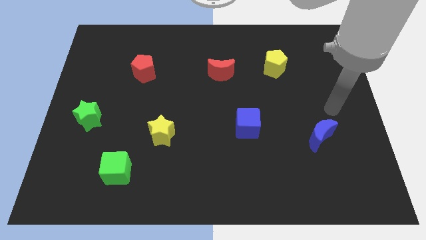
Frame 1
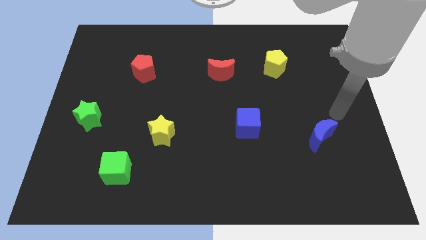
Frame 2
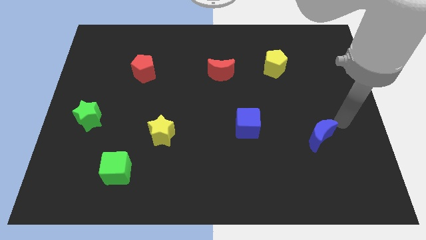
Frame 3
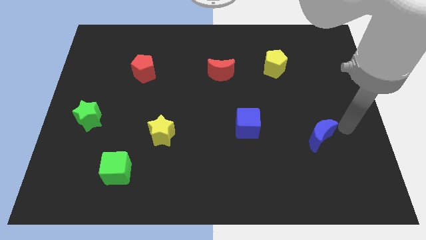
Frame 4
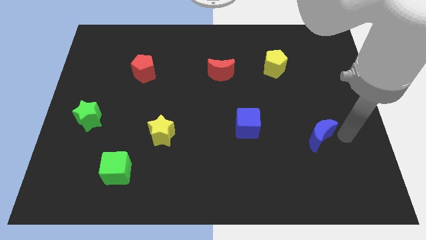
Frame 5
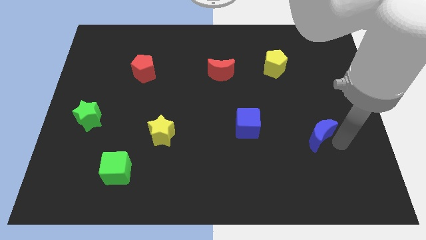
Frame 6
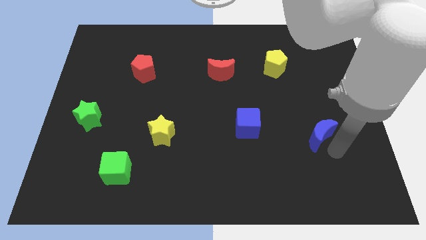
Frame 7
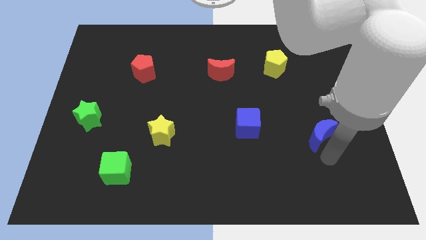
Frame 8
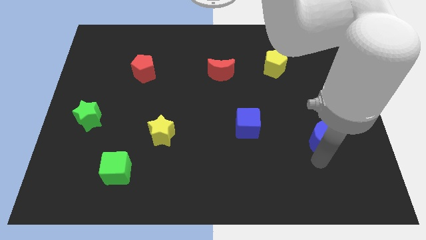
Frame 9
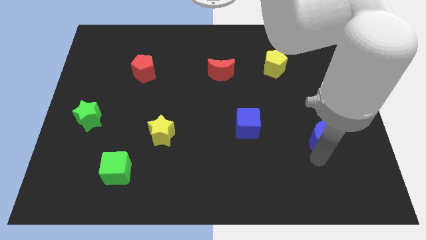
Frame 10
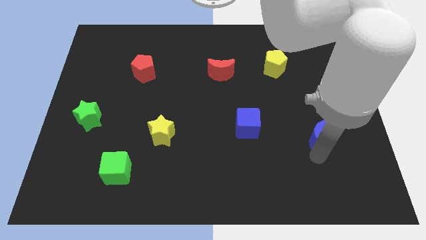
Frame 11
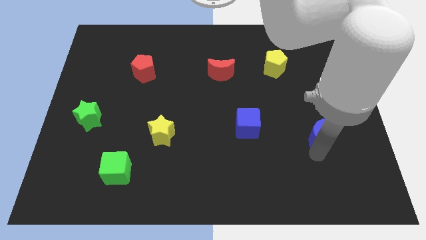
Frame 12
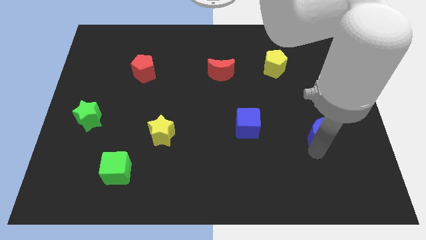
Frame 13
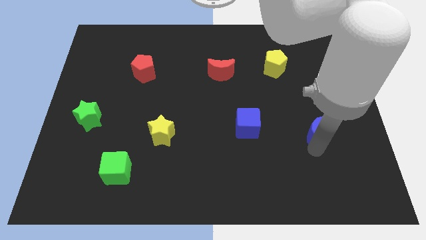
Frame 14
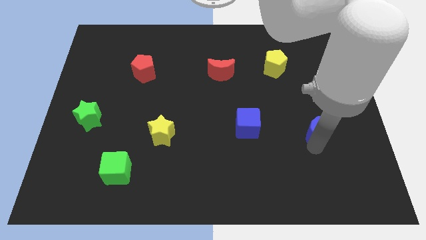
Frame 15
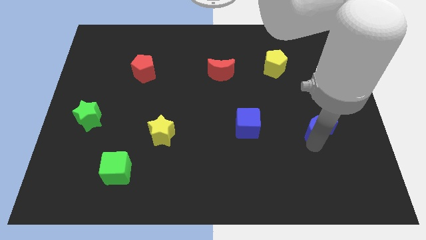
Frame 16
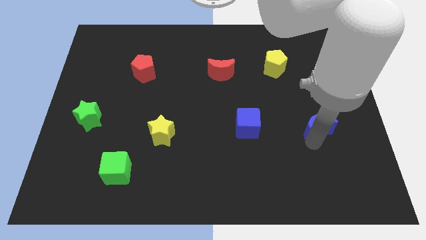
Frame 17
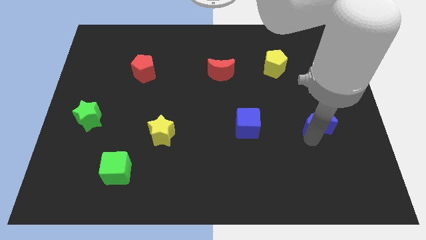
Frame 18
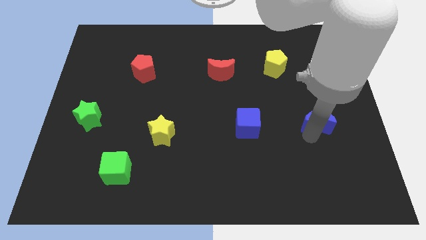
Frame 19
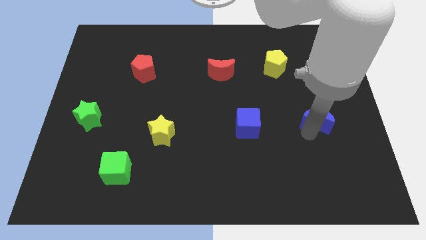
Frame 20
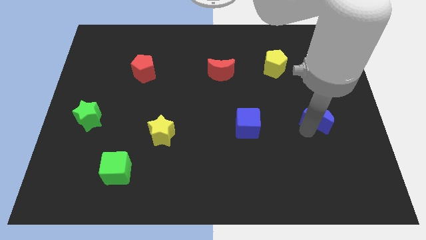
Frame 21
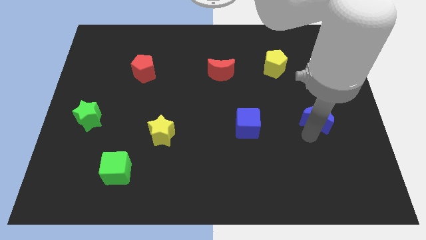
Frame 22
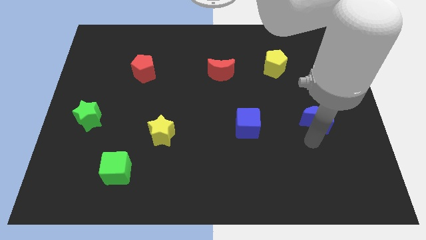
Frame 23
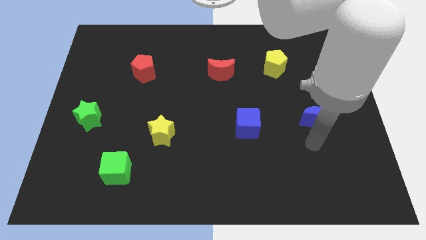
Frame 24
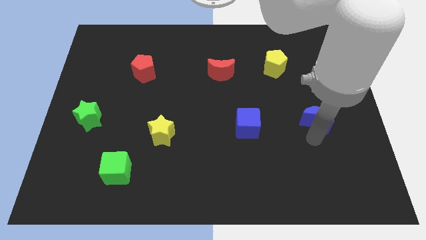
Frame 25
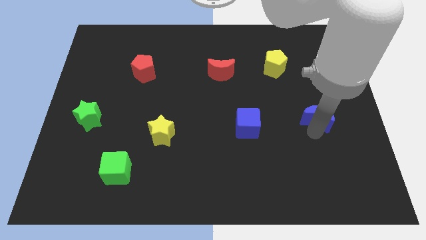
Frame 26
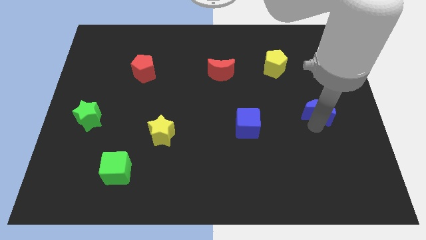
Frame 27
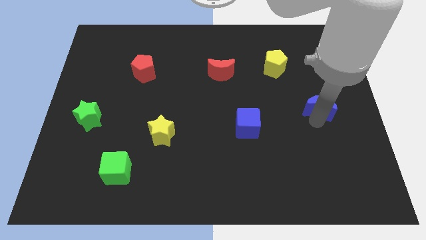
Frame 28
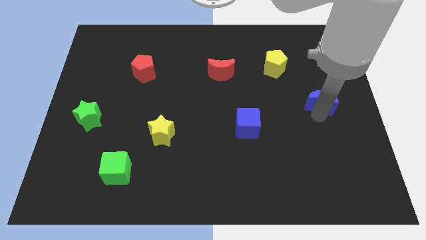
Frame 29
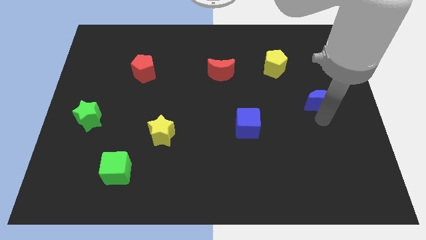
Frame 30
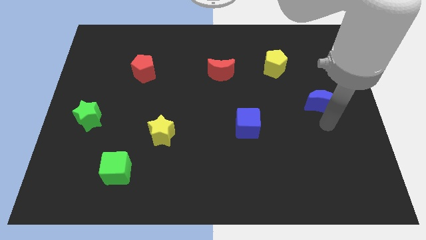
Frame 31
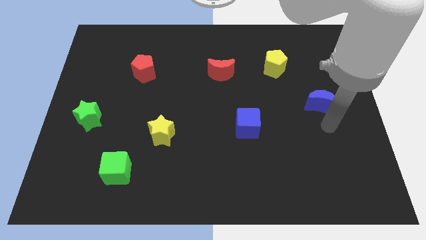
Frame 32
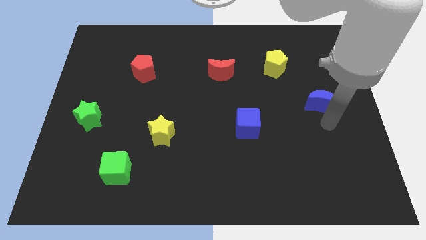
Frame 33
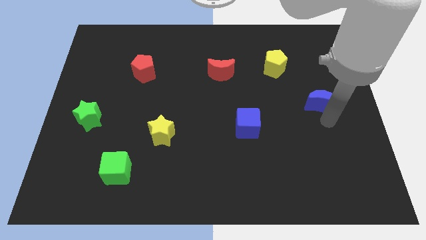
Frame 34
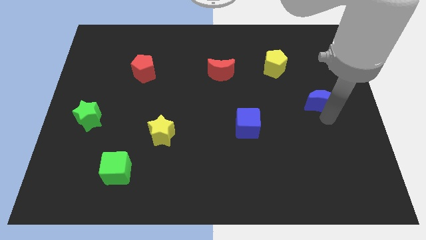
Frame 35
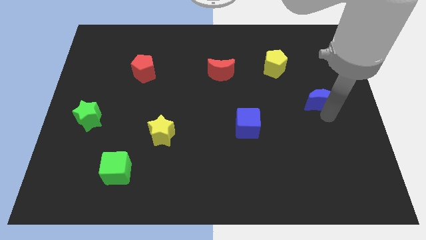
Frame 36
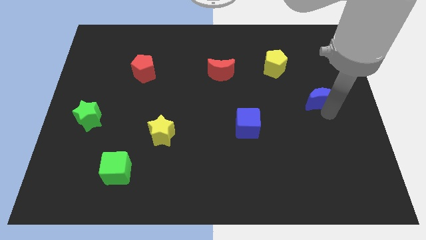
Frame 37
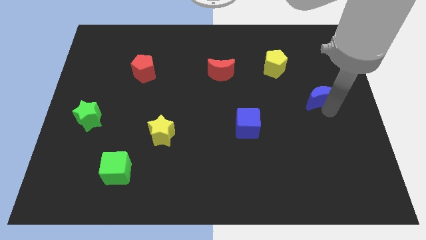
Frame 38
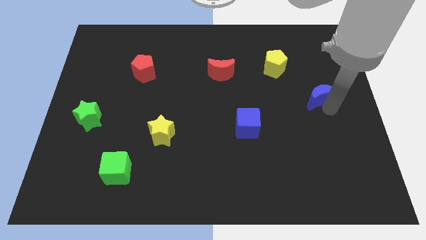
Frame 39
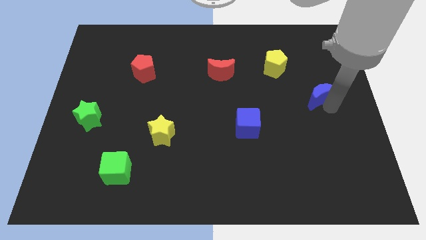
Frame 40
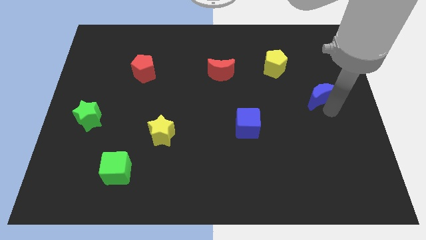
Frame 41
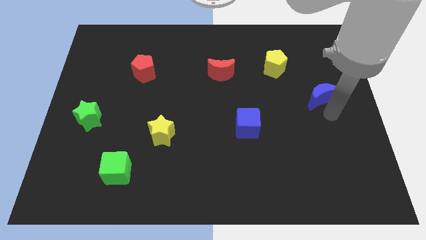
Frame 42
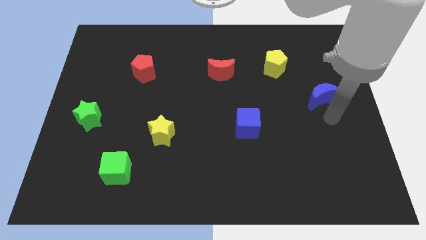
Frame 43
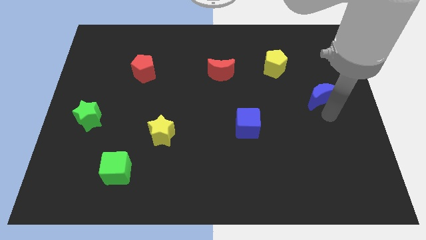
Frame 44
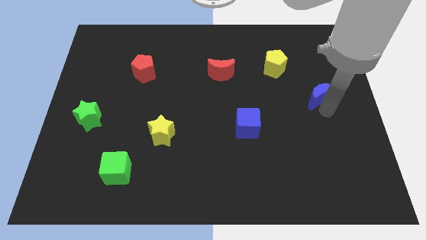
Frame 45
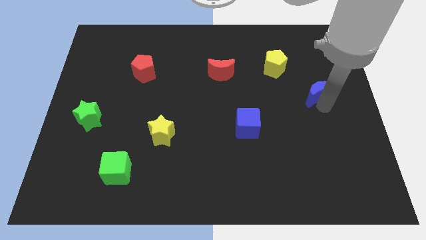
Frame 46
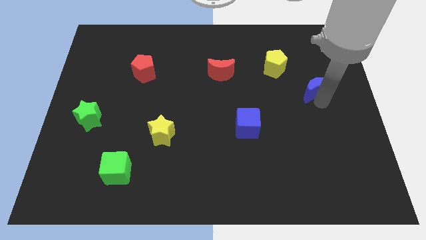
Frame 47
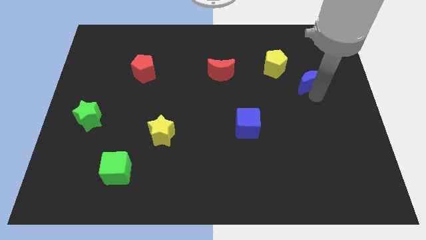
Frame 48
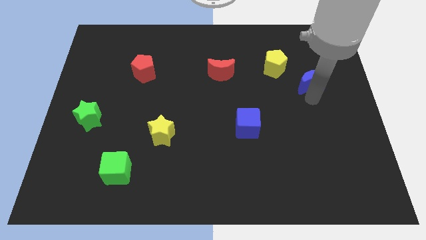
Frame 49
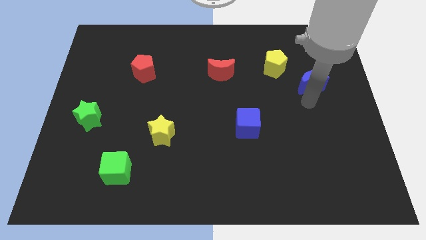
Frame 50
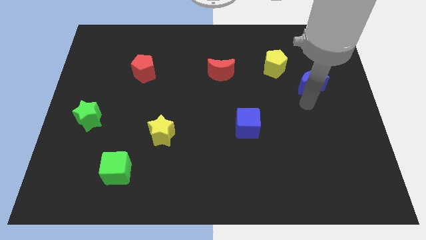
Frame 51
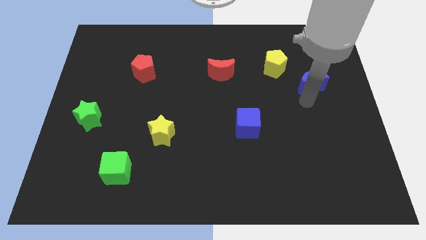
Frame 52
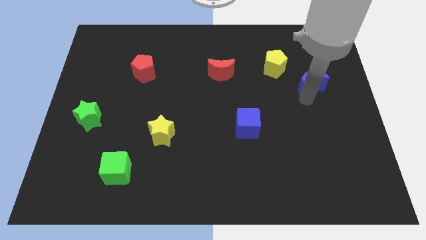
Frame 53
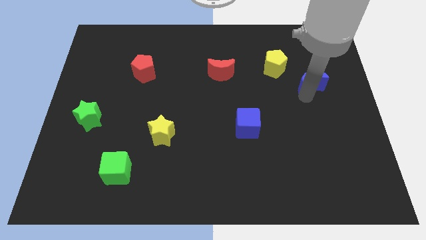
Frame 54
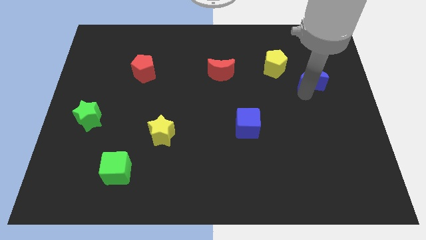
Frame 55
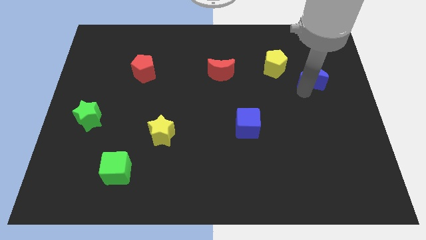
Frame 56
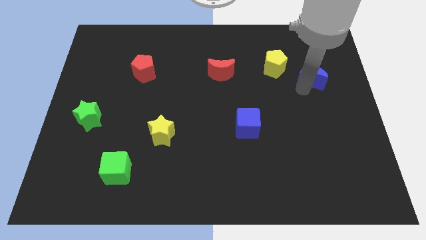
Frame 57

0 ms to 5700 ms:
put the blue moon to the right of the yellow pentagon
